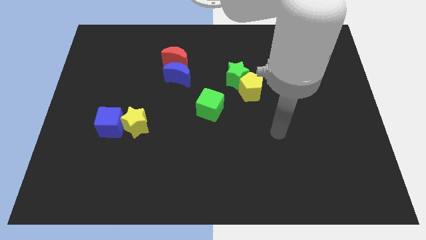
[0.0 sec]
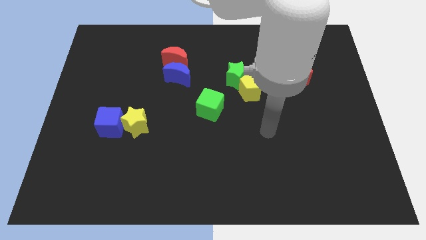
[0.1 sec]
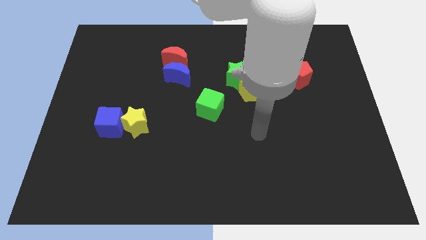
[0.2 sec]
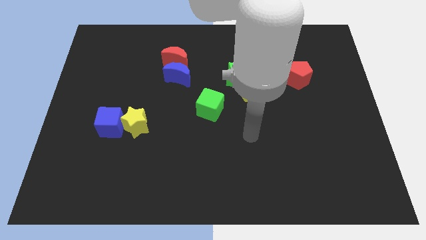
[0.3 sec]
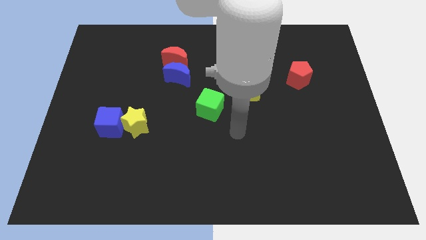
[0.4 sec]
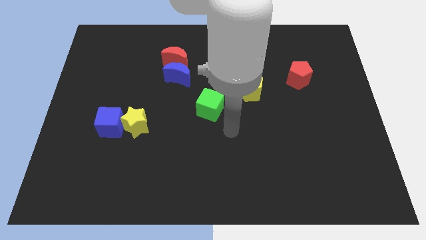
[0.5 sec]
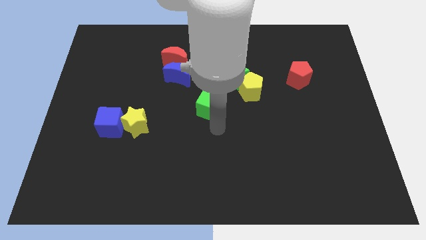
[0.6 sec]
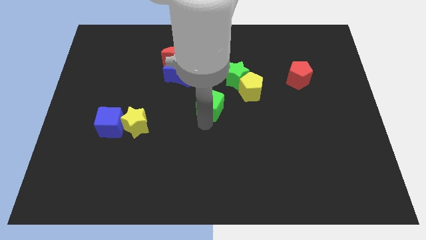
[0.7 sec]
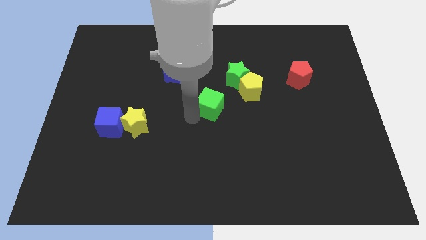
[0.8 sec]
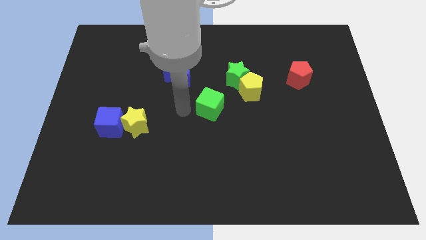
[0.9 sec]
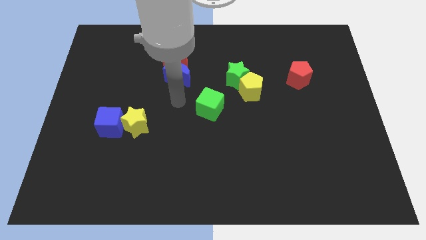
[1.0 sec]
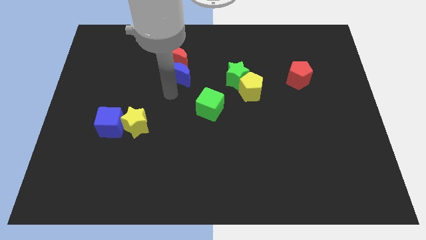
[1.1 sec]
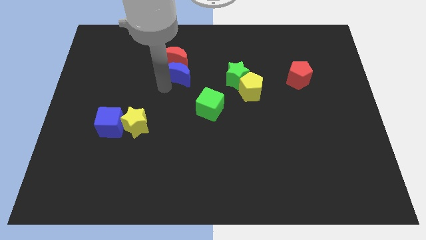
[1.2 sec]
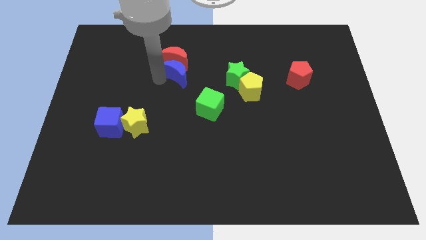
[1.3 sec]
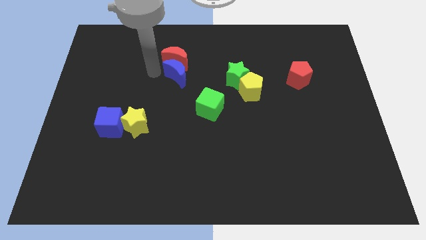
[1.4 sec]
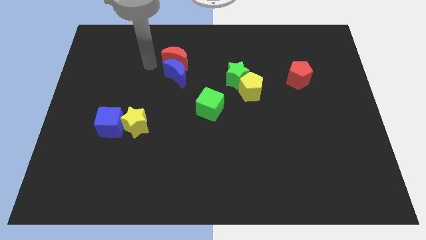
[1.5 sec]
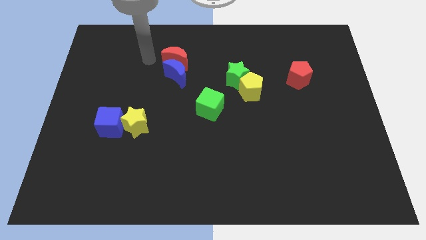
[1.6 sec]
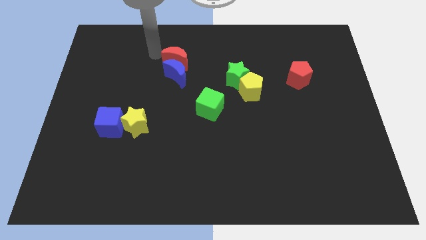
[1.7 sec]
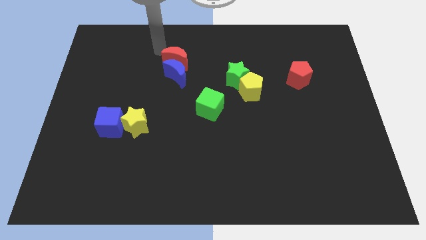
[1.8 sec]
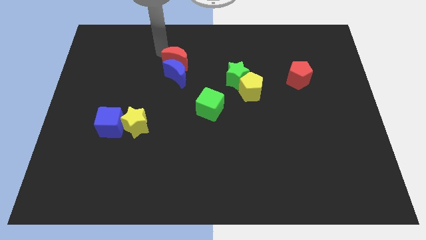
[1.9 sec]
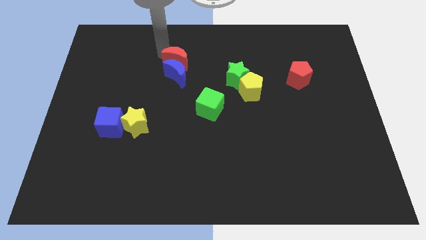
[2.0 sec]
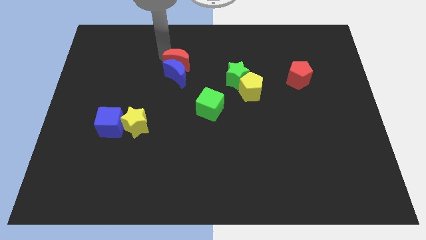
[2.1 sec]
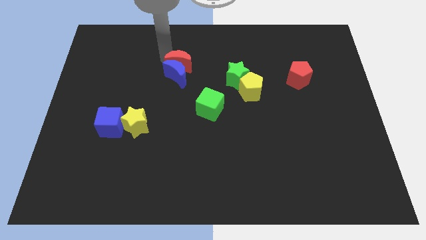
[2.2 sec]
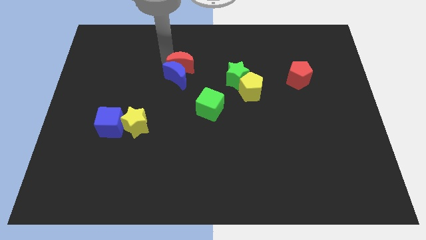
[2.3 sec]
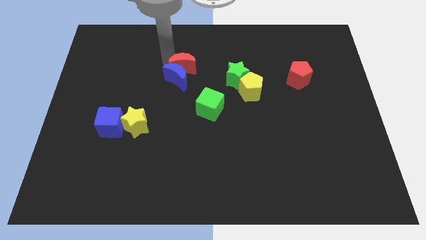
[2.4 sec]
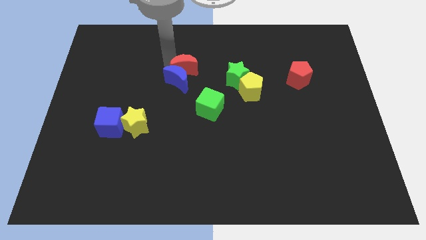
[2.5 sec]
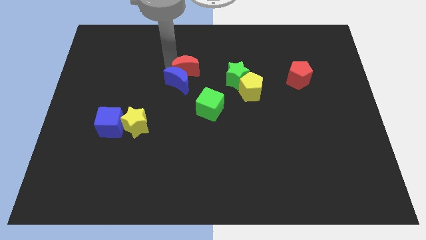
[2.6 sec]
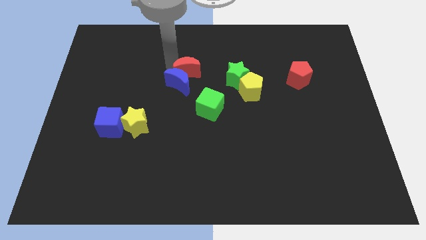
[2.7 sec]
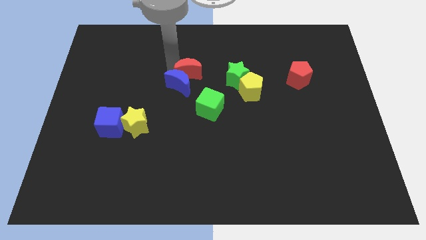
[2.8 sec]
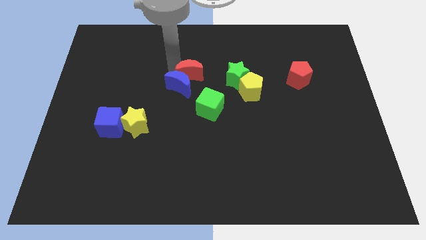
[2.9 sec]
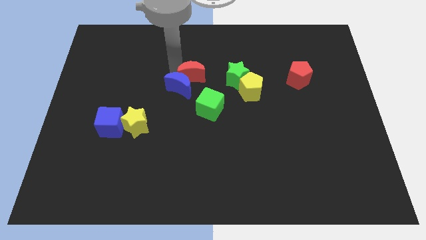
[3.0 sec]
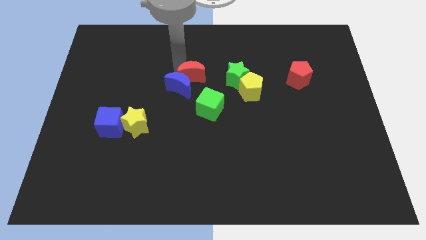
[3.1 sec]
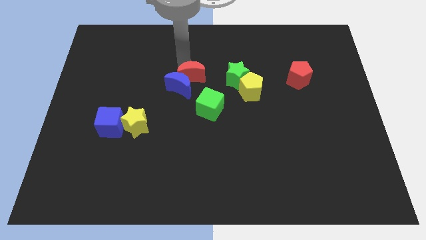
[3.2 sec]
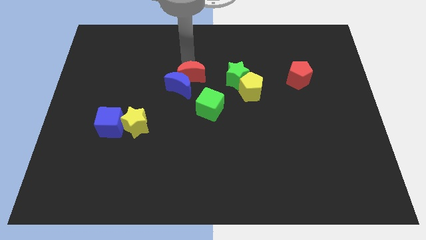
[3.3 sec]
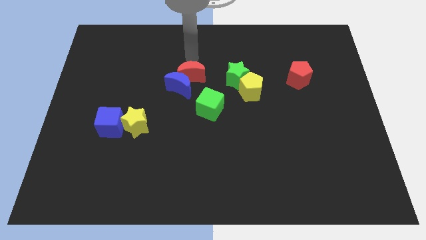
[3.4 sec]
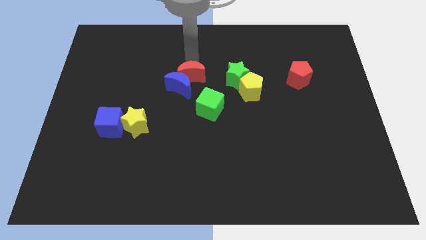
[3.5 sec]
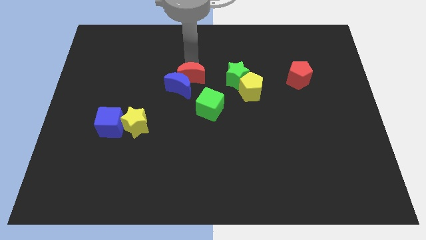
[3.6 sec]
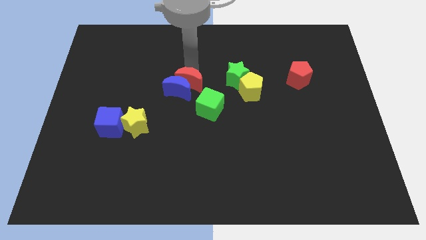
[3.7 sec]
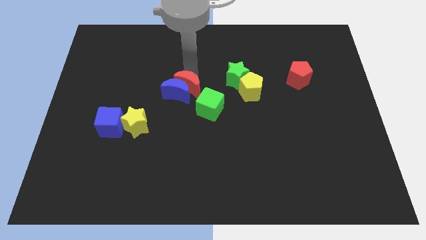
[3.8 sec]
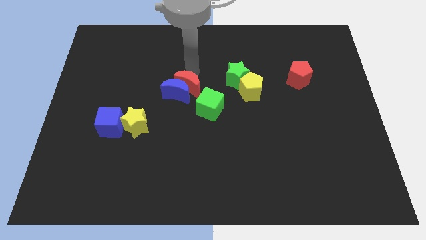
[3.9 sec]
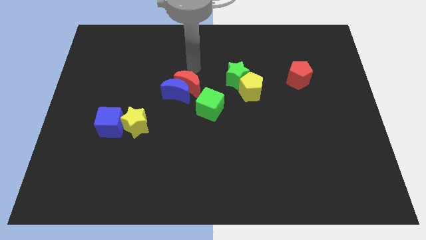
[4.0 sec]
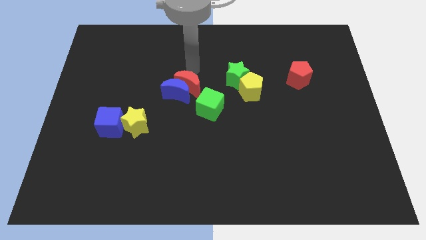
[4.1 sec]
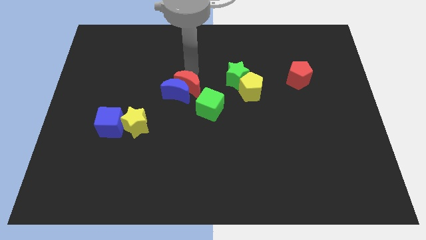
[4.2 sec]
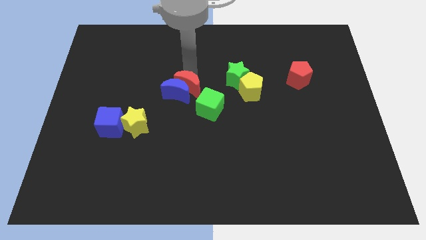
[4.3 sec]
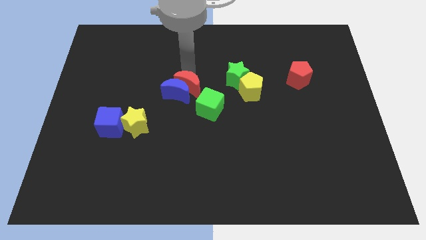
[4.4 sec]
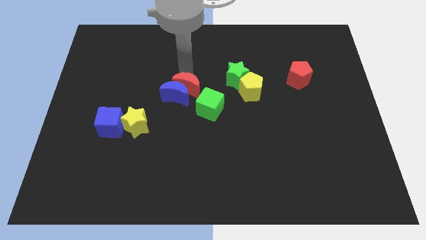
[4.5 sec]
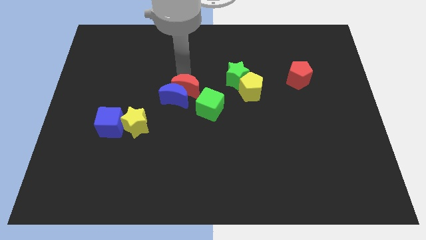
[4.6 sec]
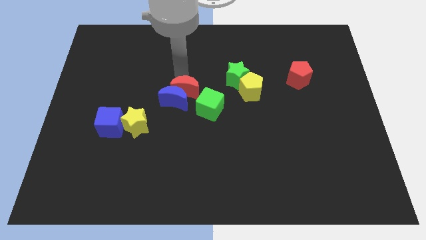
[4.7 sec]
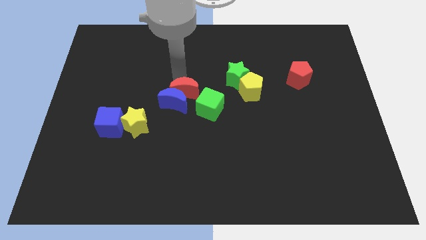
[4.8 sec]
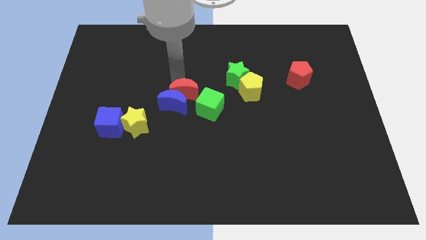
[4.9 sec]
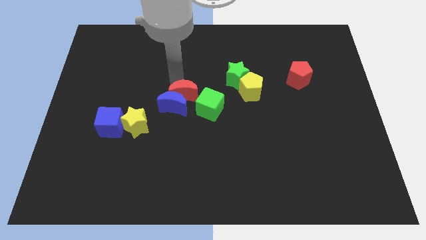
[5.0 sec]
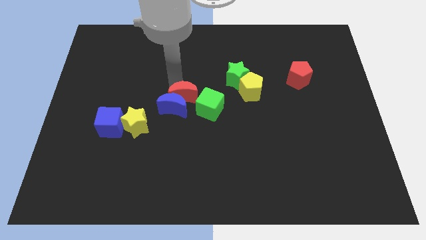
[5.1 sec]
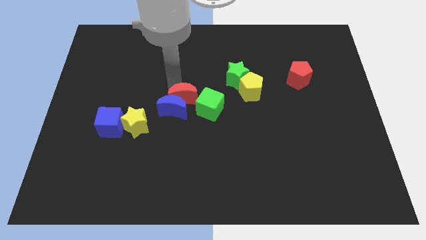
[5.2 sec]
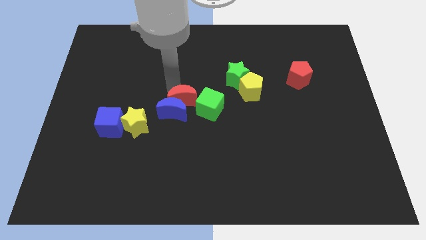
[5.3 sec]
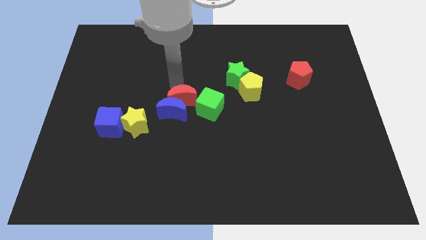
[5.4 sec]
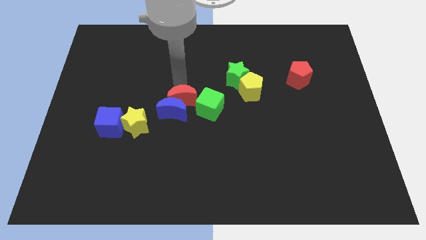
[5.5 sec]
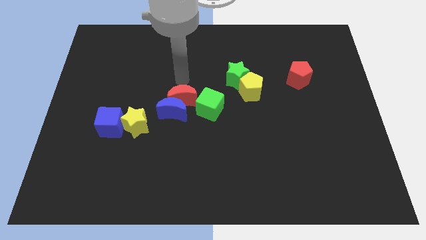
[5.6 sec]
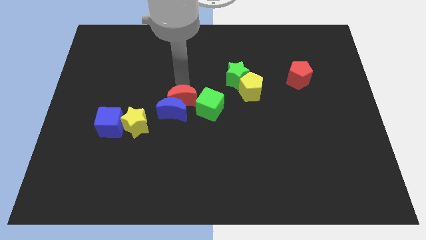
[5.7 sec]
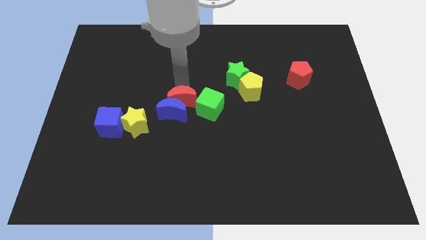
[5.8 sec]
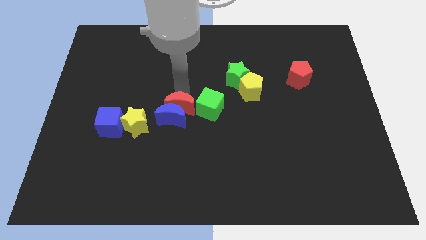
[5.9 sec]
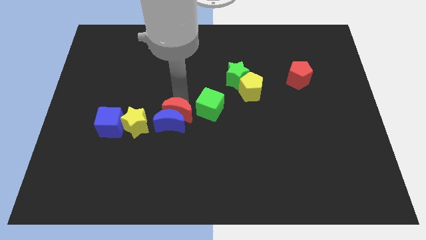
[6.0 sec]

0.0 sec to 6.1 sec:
slide the red moon to the right side of the yellow star

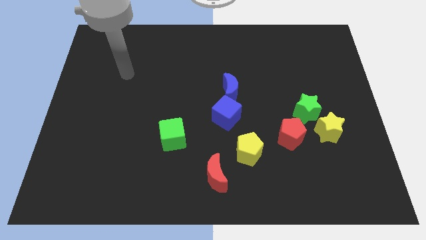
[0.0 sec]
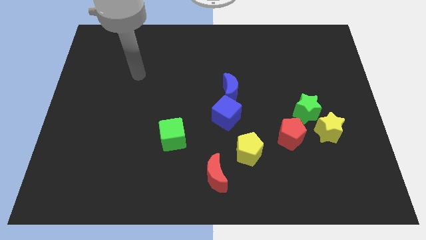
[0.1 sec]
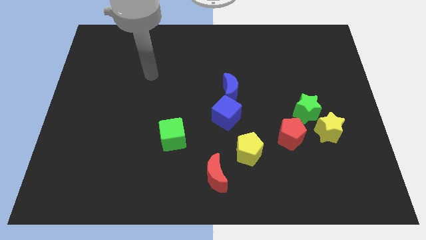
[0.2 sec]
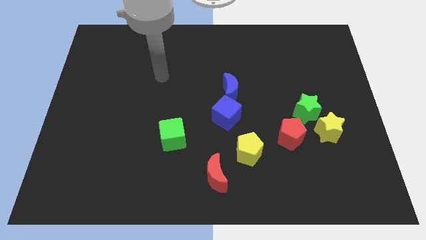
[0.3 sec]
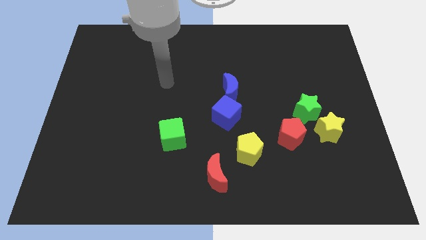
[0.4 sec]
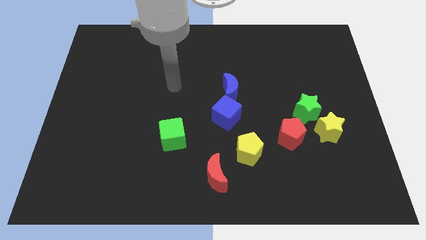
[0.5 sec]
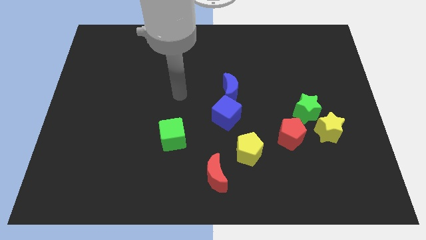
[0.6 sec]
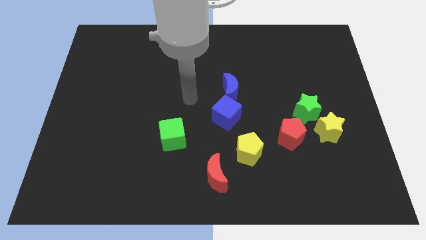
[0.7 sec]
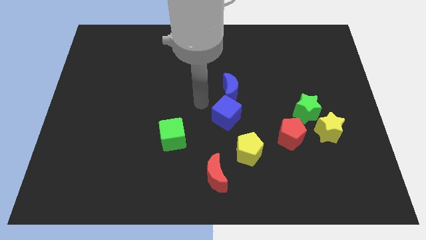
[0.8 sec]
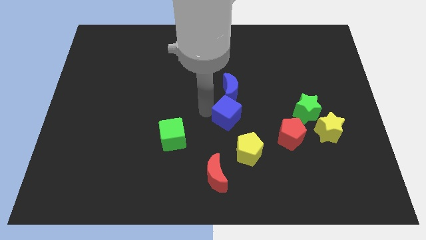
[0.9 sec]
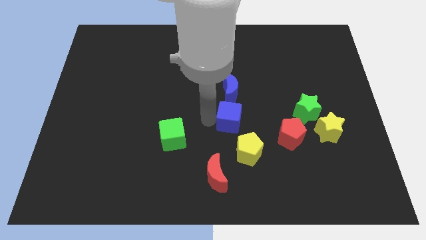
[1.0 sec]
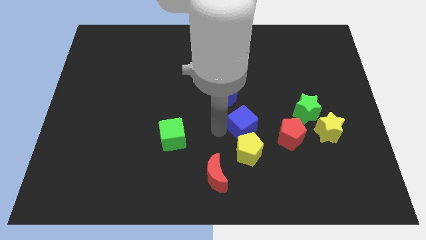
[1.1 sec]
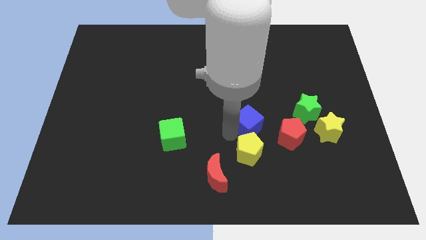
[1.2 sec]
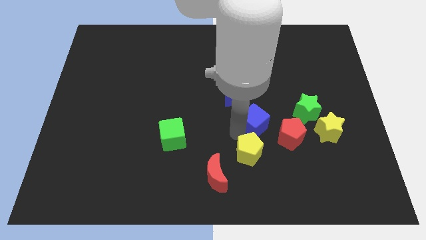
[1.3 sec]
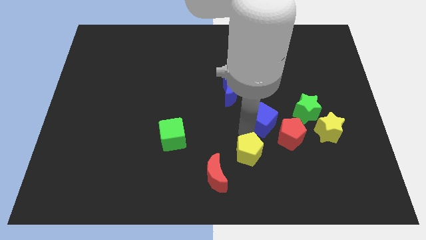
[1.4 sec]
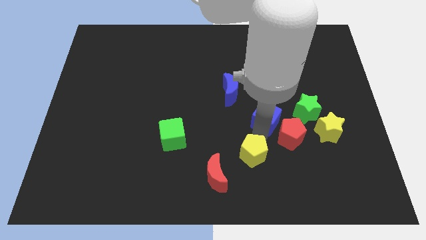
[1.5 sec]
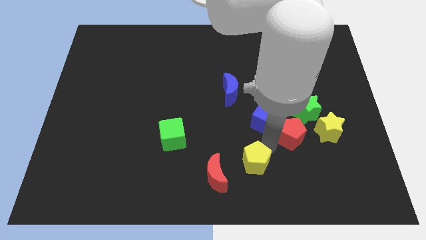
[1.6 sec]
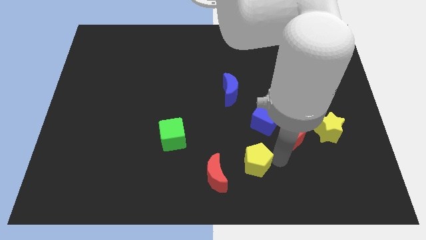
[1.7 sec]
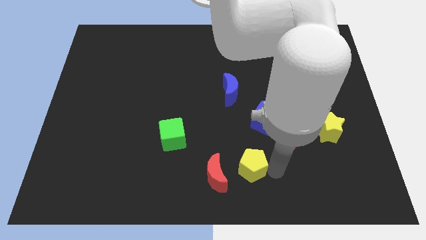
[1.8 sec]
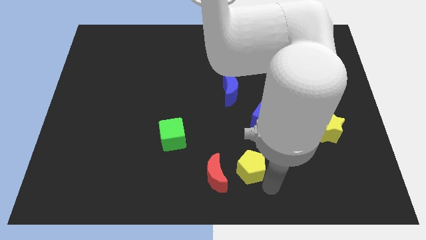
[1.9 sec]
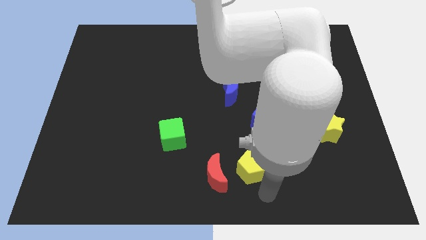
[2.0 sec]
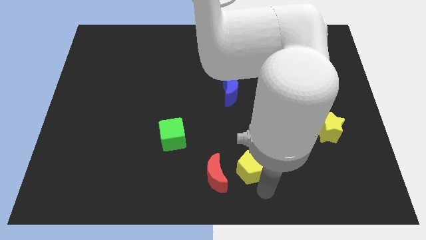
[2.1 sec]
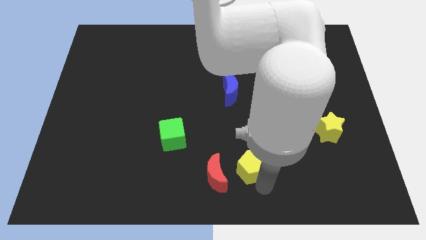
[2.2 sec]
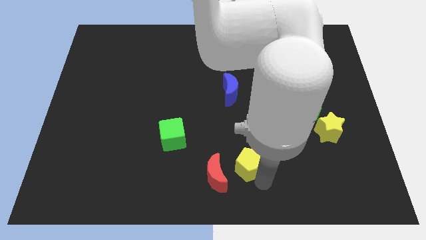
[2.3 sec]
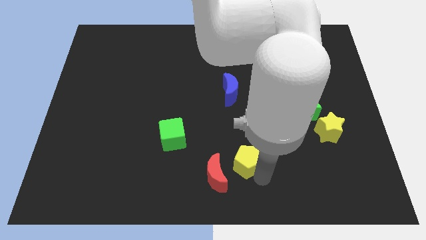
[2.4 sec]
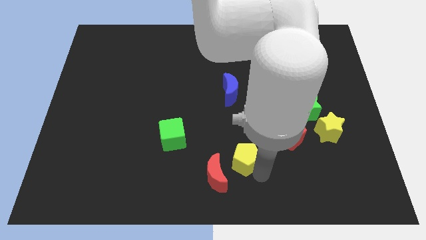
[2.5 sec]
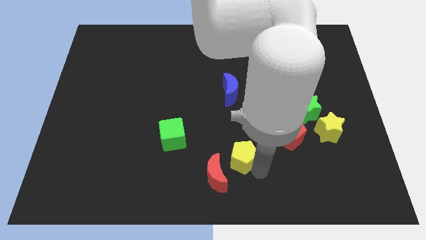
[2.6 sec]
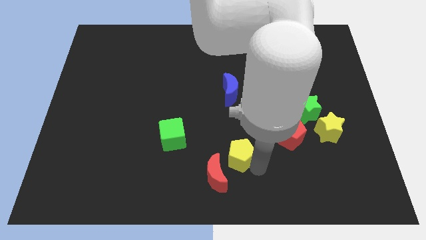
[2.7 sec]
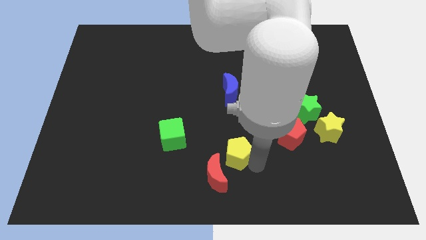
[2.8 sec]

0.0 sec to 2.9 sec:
slide the yellow pentagon to the top side of the red moon
